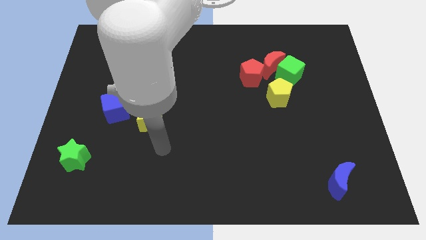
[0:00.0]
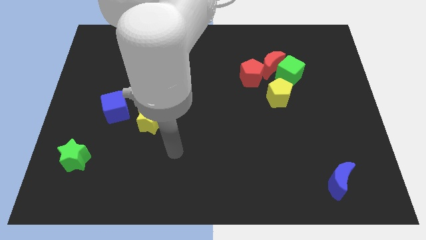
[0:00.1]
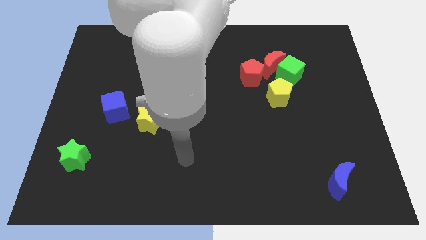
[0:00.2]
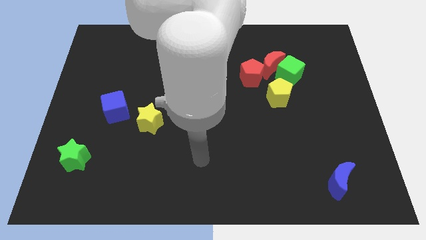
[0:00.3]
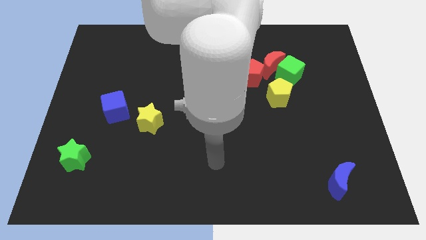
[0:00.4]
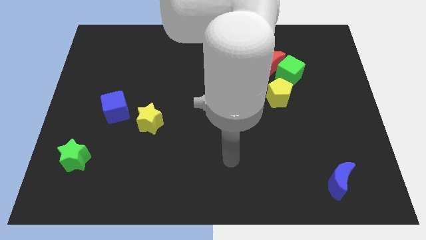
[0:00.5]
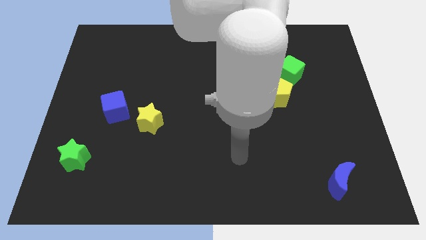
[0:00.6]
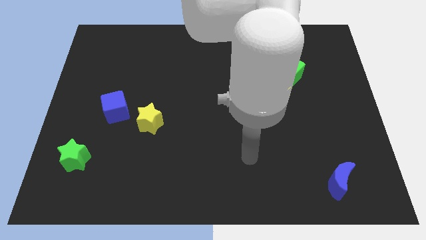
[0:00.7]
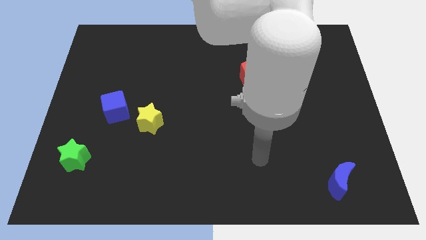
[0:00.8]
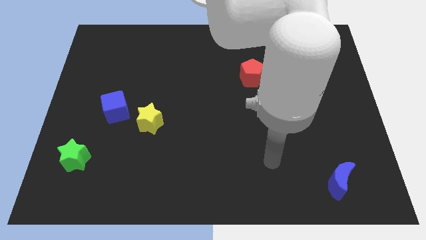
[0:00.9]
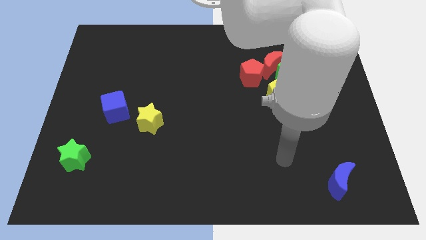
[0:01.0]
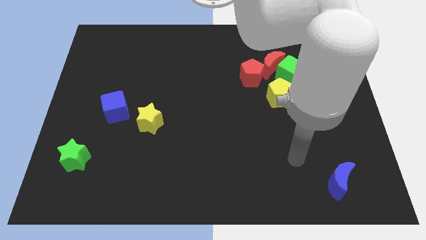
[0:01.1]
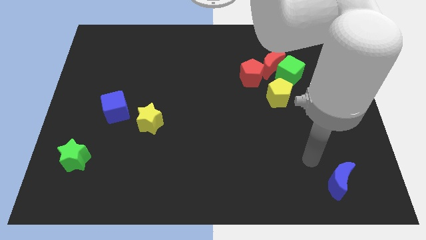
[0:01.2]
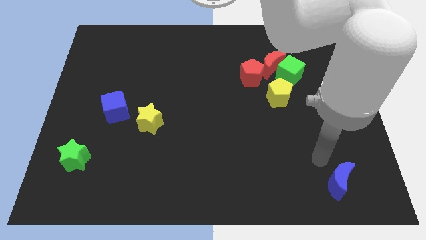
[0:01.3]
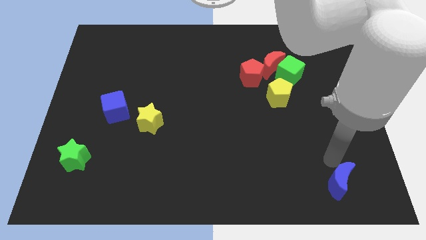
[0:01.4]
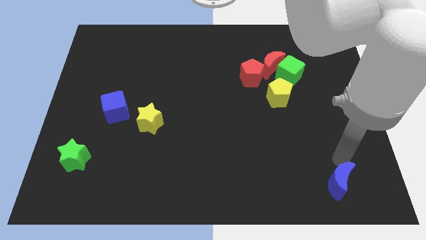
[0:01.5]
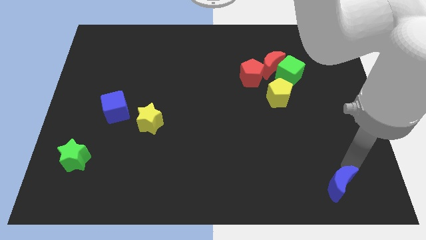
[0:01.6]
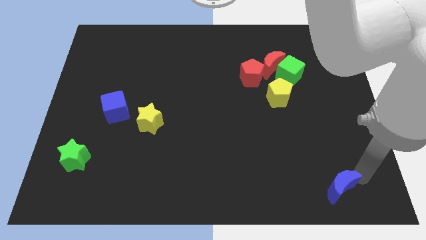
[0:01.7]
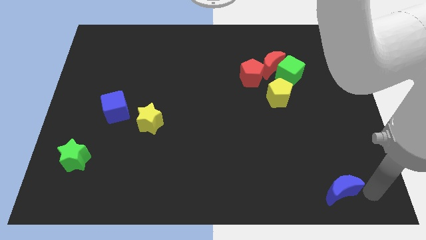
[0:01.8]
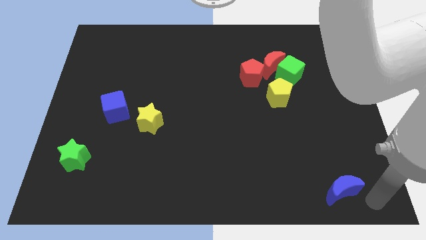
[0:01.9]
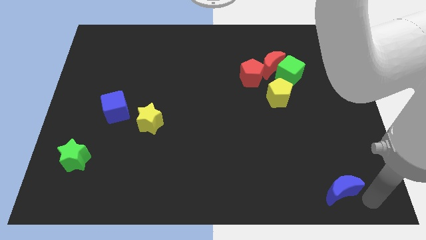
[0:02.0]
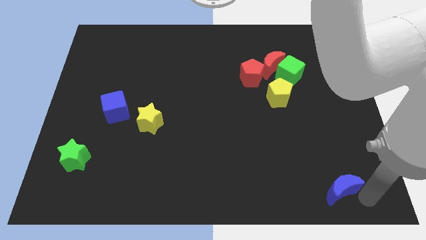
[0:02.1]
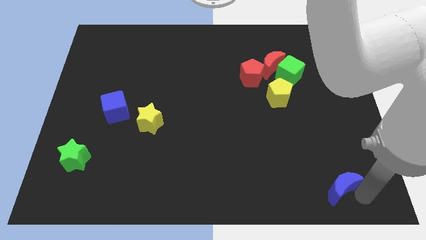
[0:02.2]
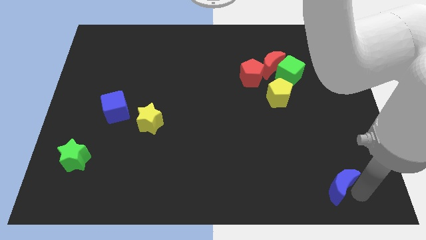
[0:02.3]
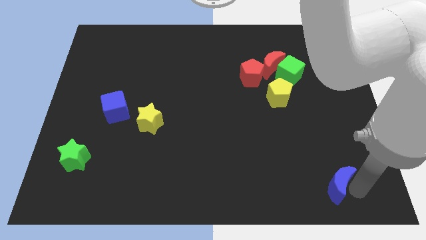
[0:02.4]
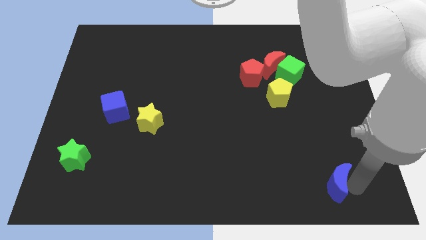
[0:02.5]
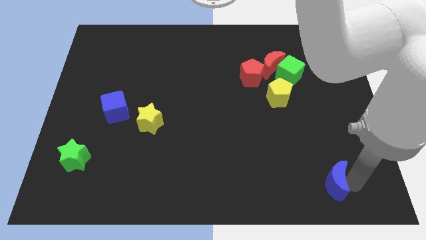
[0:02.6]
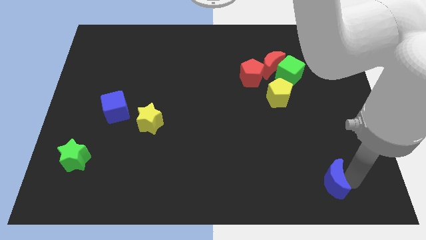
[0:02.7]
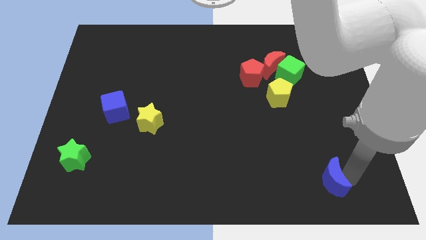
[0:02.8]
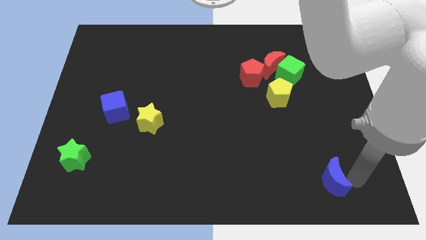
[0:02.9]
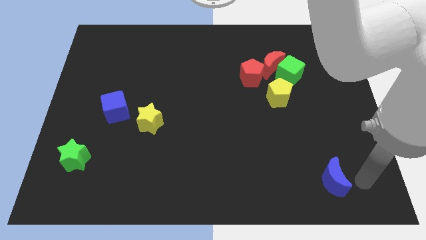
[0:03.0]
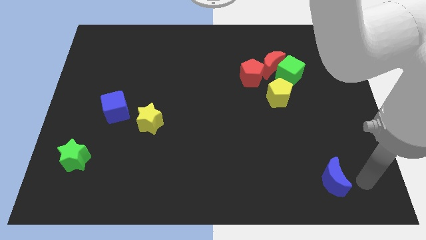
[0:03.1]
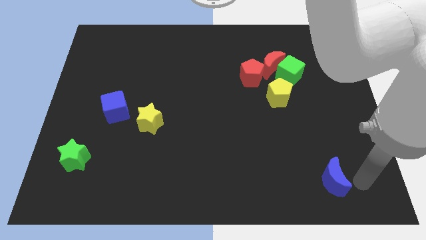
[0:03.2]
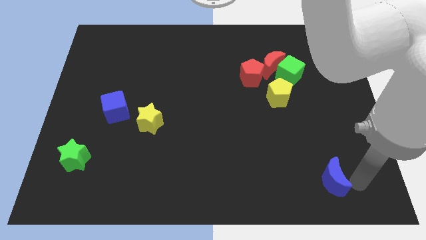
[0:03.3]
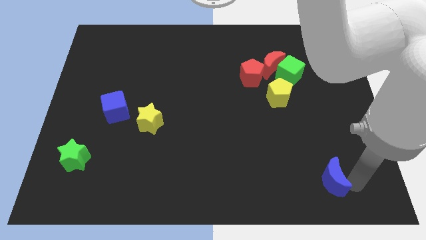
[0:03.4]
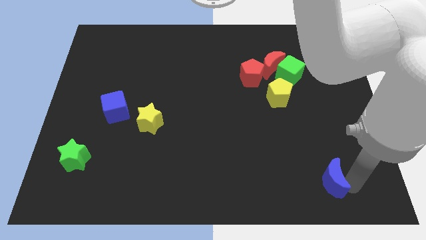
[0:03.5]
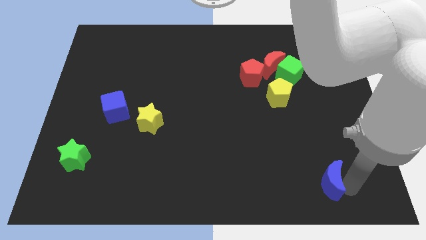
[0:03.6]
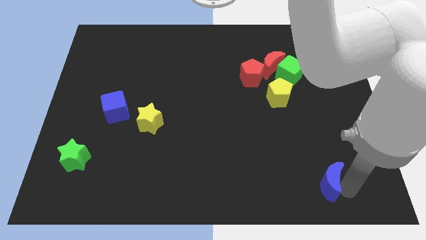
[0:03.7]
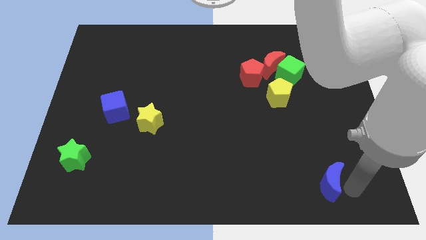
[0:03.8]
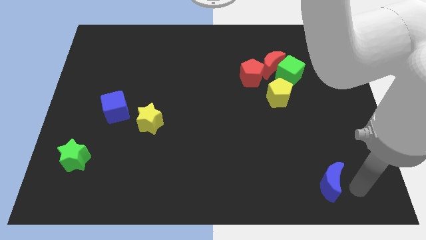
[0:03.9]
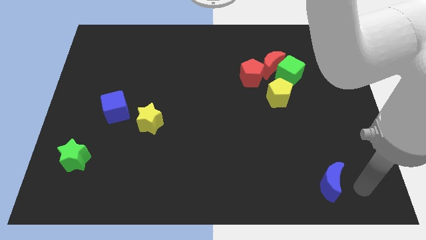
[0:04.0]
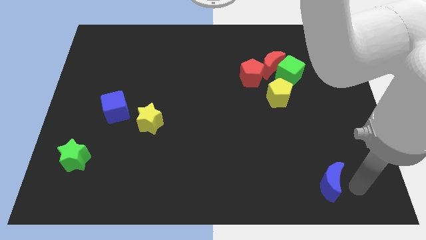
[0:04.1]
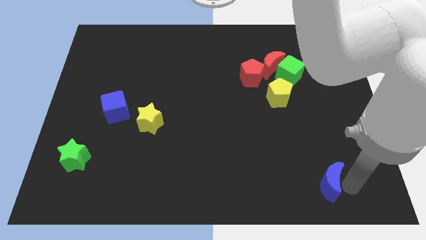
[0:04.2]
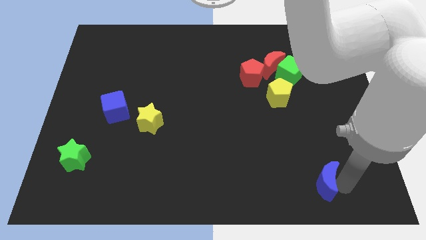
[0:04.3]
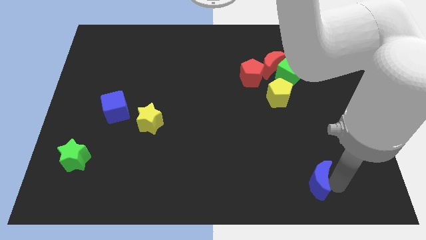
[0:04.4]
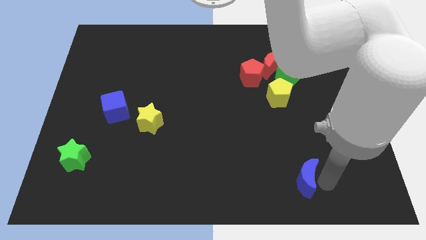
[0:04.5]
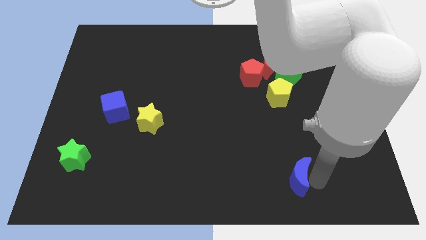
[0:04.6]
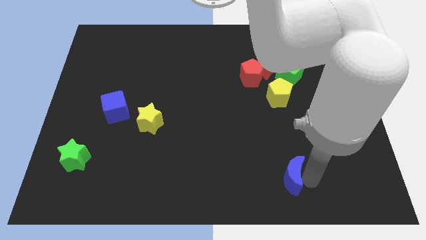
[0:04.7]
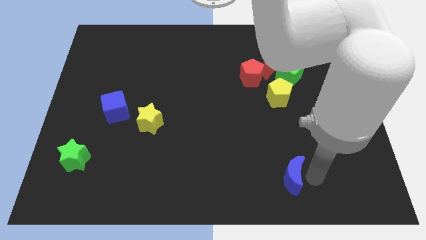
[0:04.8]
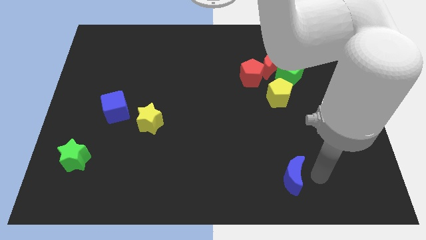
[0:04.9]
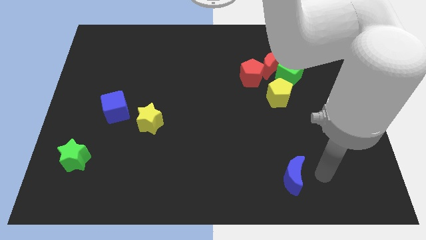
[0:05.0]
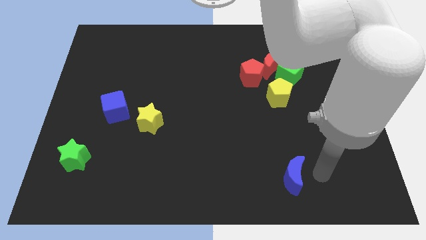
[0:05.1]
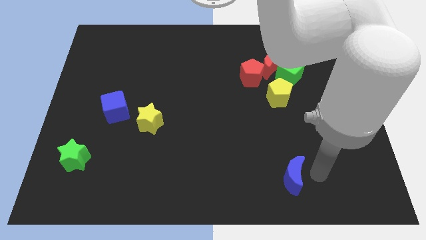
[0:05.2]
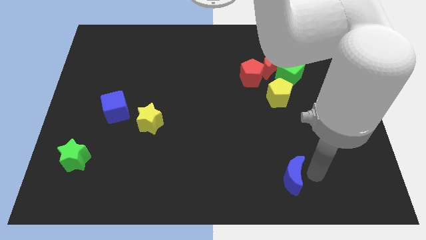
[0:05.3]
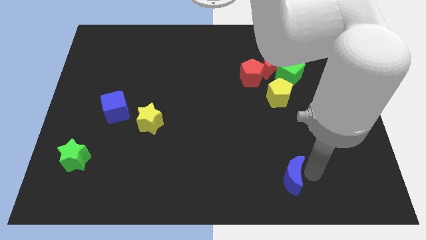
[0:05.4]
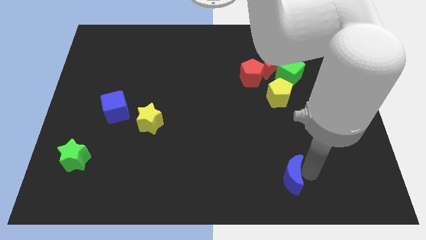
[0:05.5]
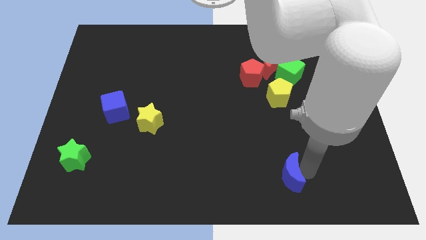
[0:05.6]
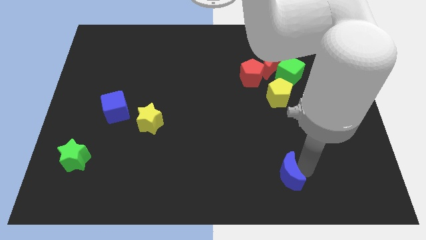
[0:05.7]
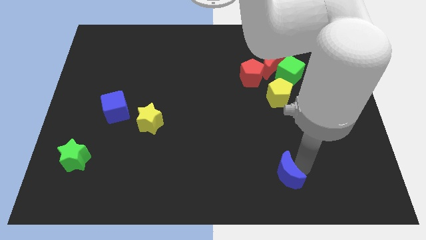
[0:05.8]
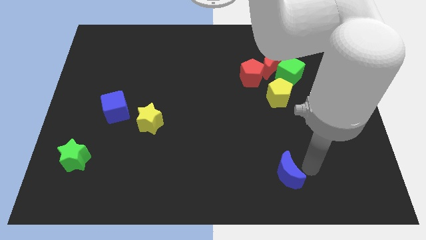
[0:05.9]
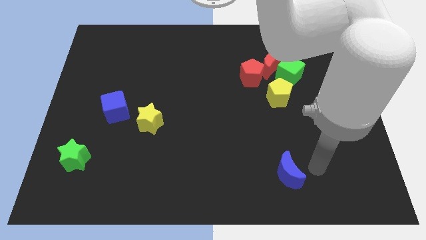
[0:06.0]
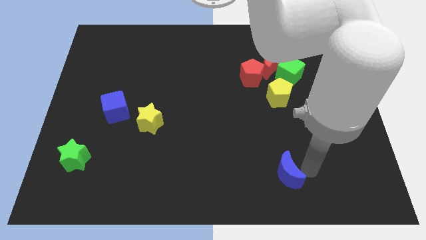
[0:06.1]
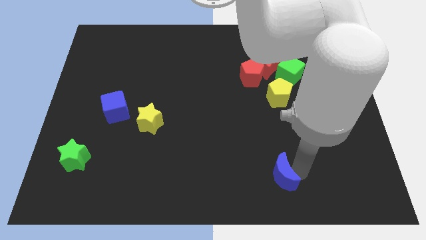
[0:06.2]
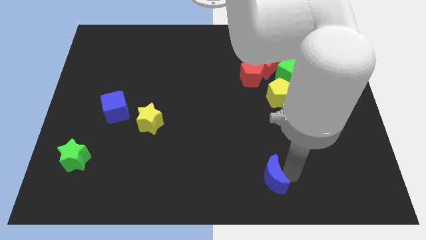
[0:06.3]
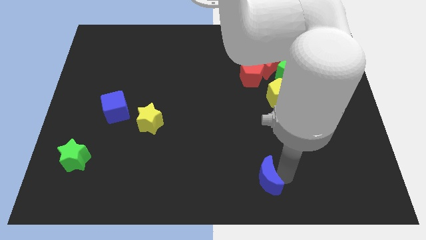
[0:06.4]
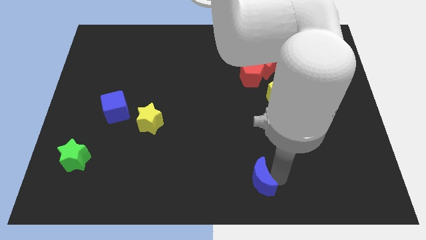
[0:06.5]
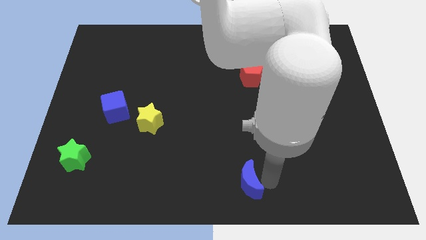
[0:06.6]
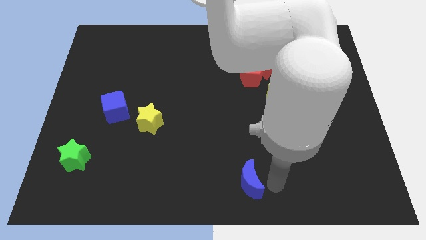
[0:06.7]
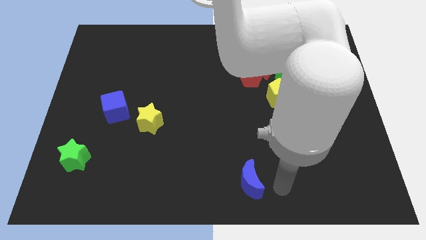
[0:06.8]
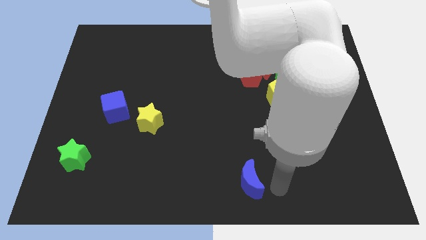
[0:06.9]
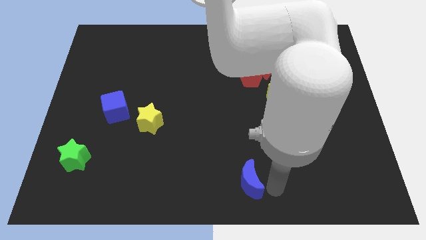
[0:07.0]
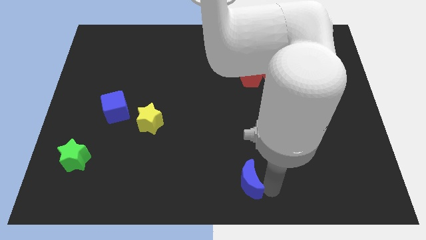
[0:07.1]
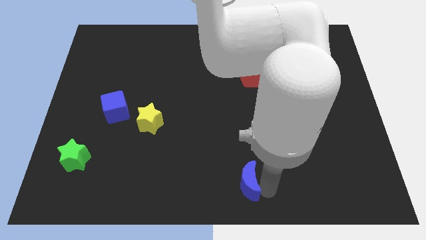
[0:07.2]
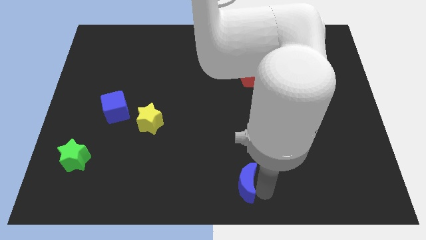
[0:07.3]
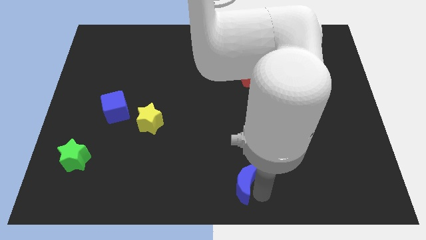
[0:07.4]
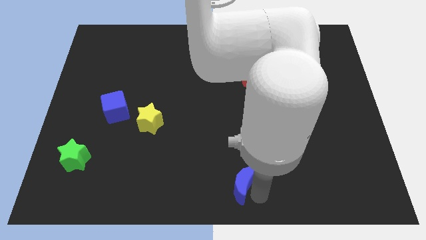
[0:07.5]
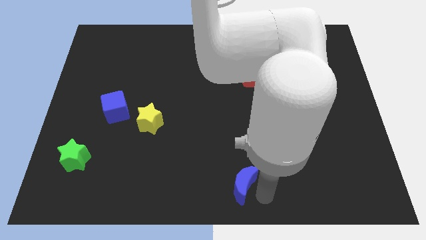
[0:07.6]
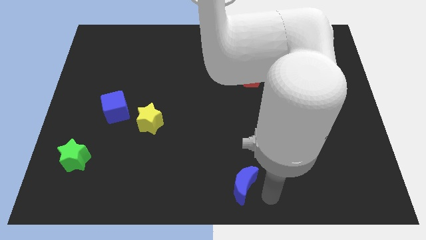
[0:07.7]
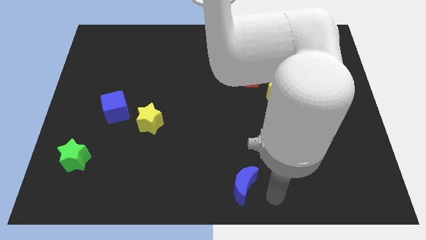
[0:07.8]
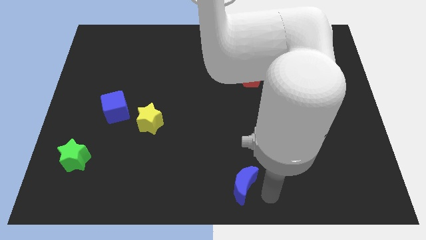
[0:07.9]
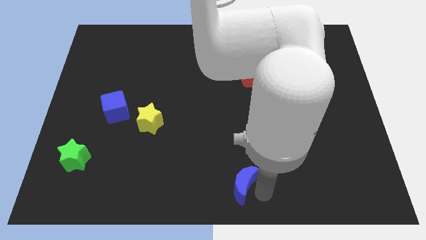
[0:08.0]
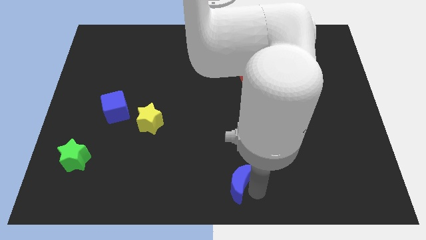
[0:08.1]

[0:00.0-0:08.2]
move the blue moon to the left
